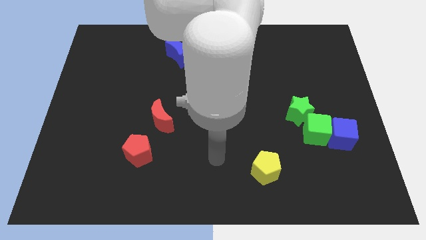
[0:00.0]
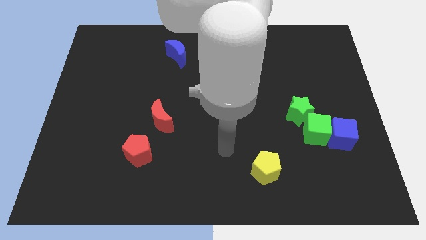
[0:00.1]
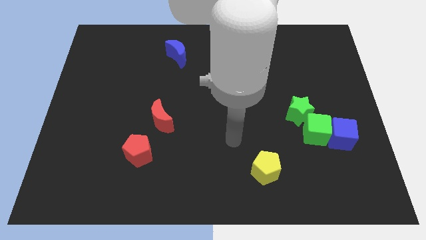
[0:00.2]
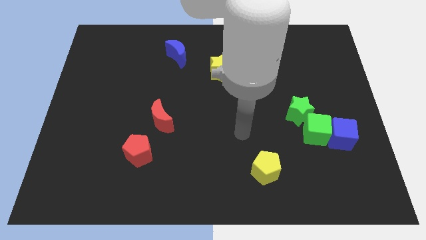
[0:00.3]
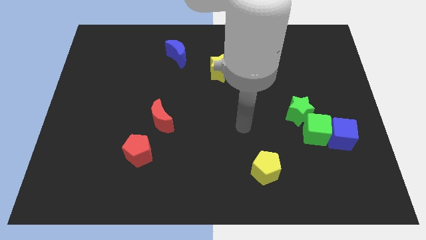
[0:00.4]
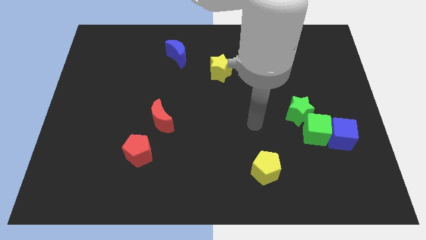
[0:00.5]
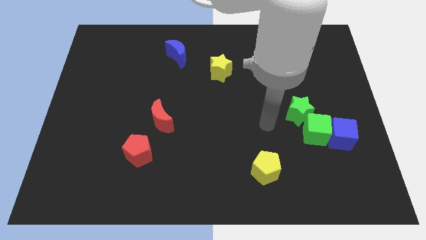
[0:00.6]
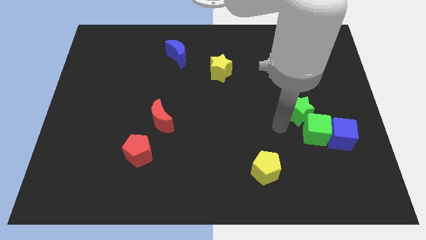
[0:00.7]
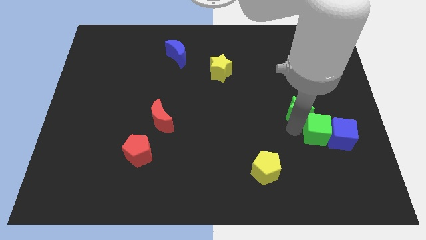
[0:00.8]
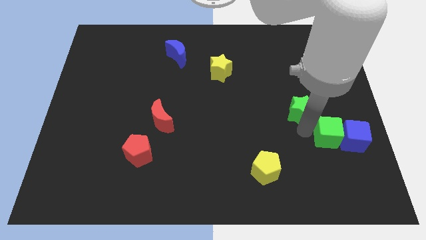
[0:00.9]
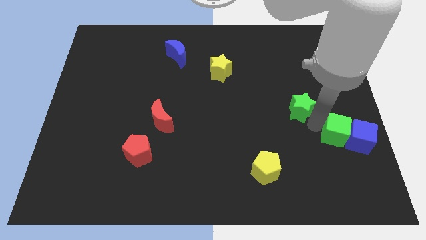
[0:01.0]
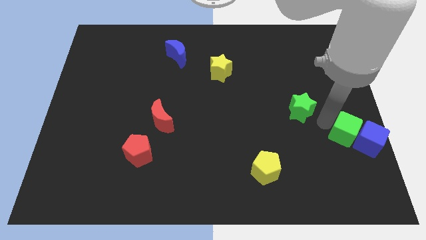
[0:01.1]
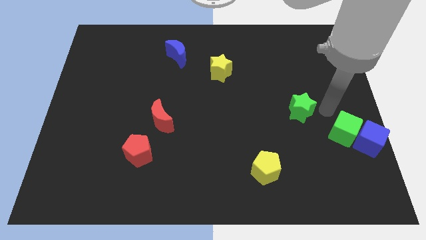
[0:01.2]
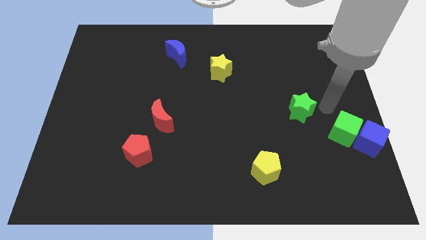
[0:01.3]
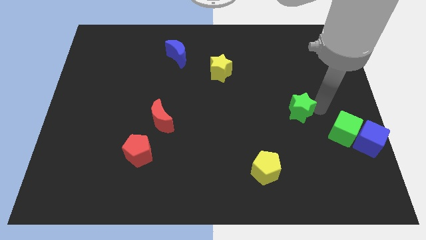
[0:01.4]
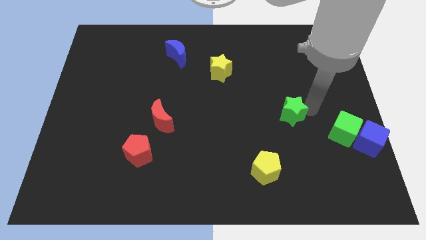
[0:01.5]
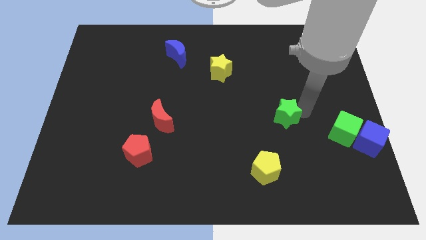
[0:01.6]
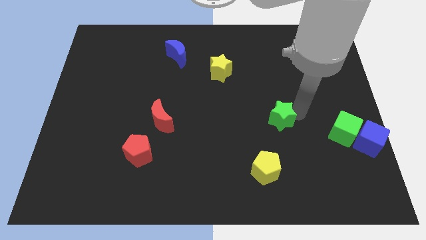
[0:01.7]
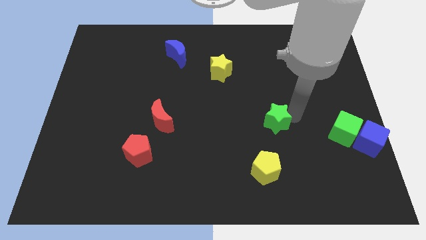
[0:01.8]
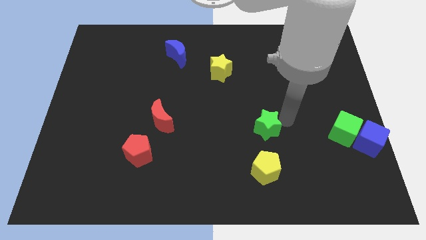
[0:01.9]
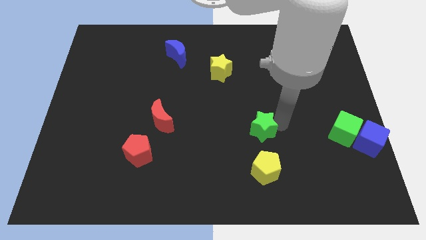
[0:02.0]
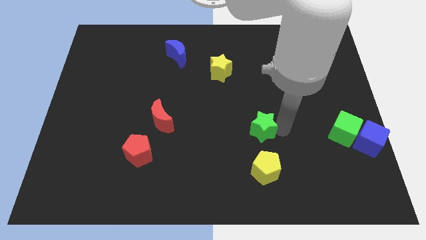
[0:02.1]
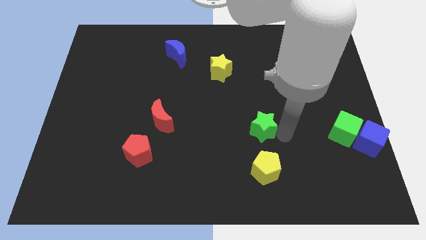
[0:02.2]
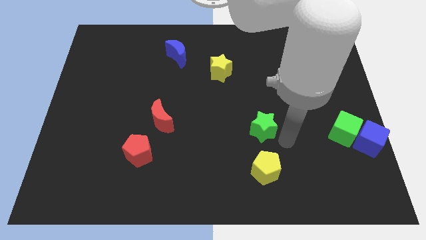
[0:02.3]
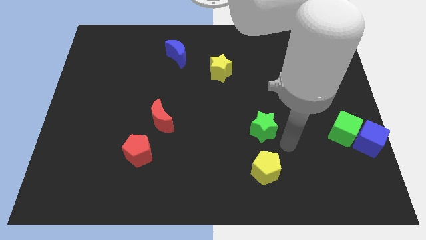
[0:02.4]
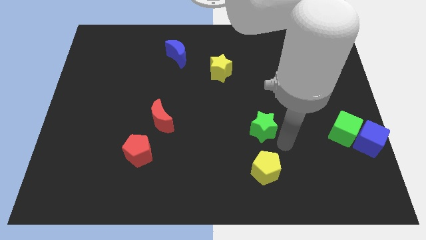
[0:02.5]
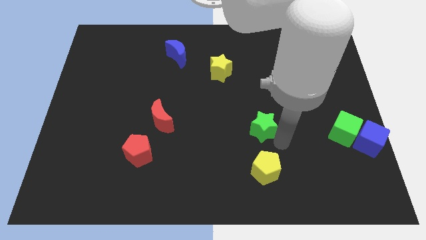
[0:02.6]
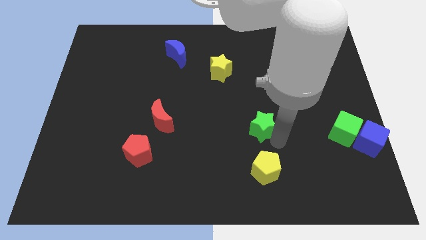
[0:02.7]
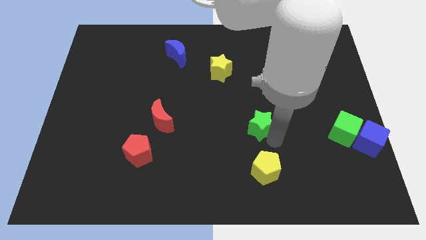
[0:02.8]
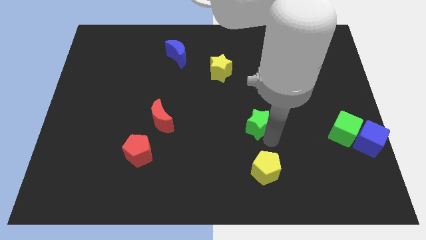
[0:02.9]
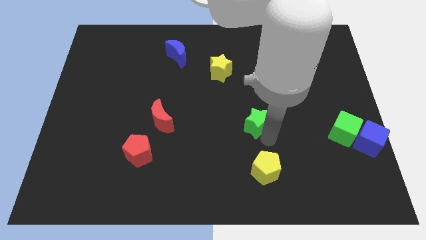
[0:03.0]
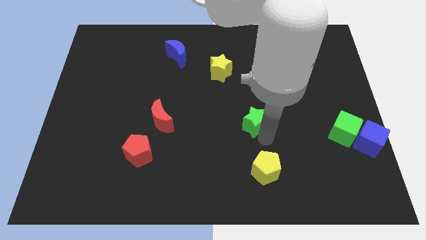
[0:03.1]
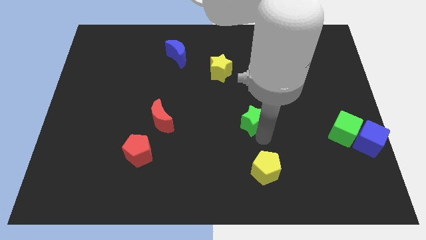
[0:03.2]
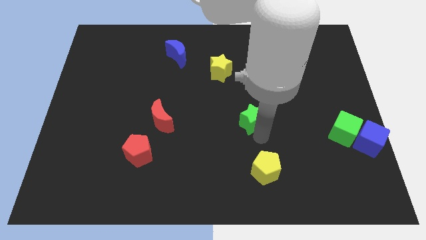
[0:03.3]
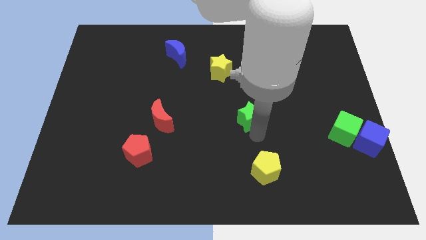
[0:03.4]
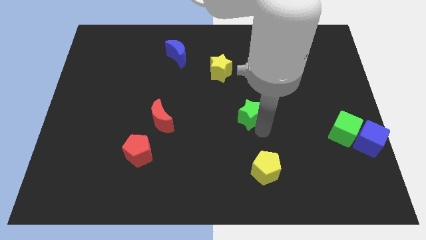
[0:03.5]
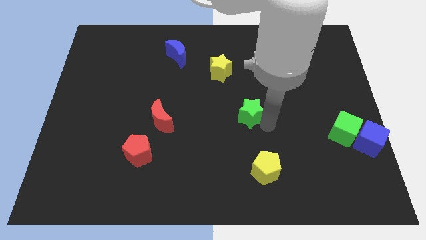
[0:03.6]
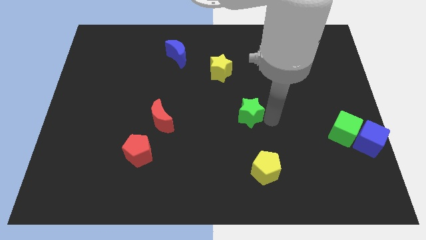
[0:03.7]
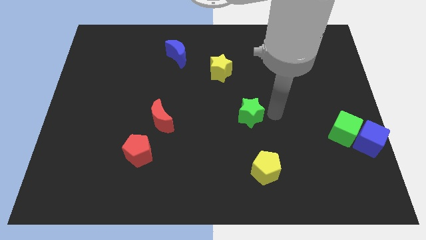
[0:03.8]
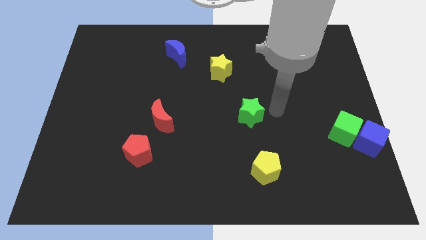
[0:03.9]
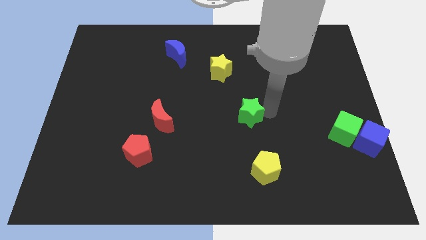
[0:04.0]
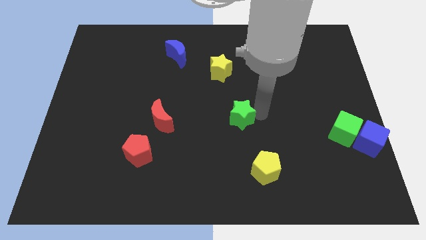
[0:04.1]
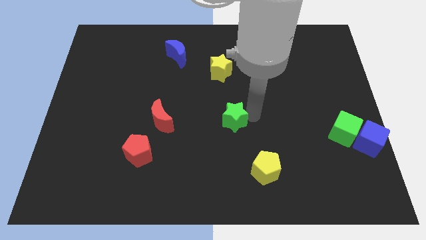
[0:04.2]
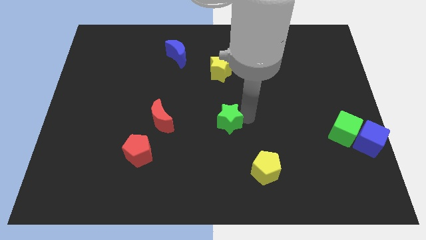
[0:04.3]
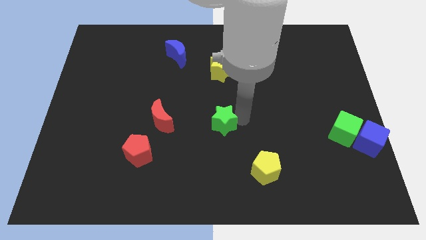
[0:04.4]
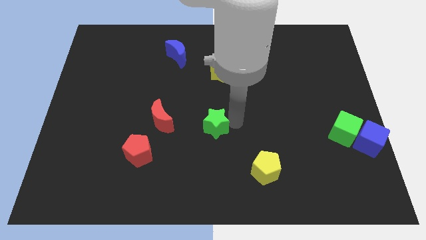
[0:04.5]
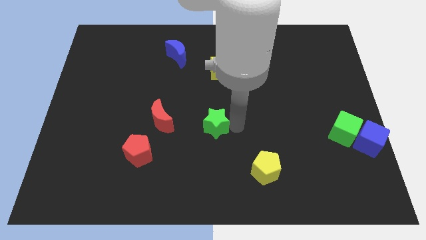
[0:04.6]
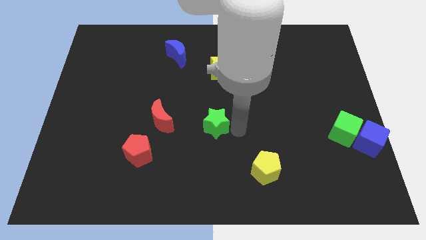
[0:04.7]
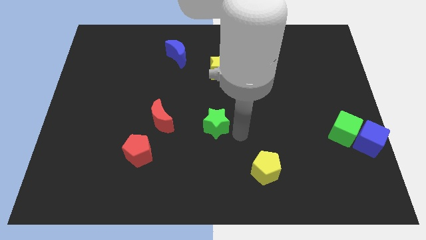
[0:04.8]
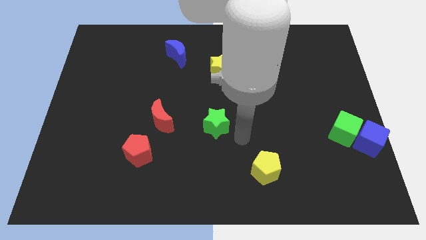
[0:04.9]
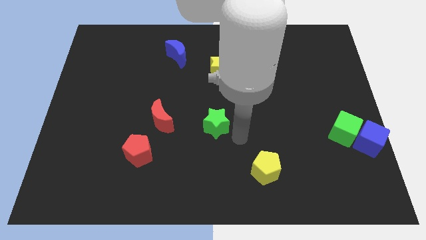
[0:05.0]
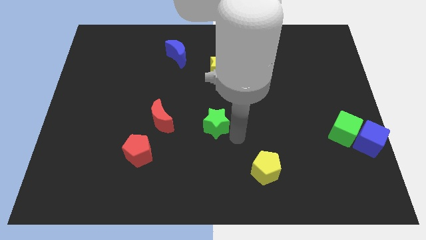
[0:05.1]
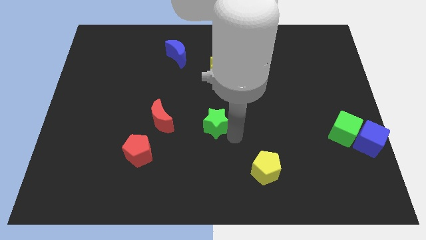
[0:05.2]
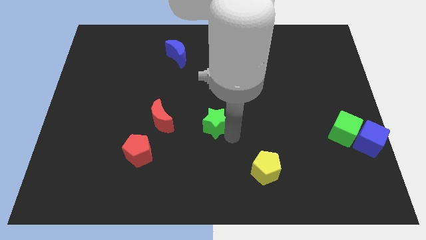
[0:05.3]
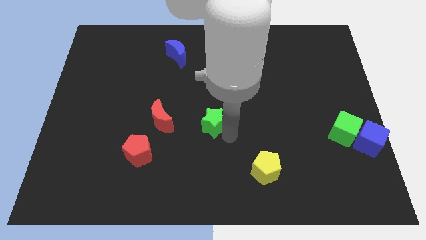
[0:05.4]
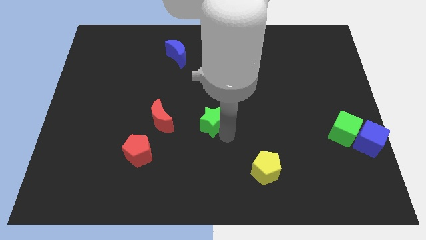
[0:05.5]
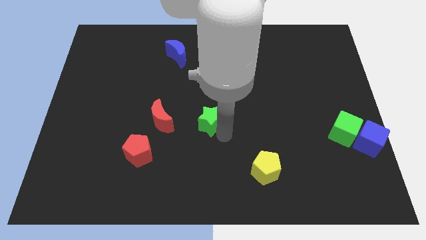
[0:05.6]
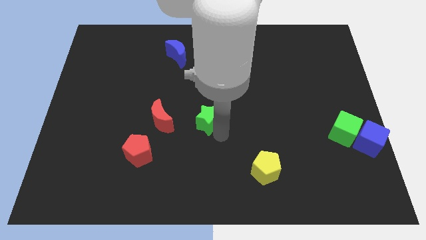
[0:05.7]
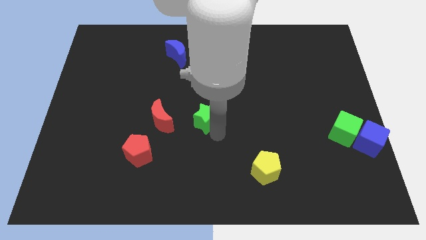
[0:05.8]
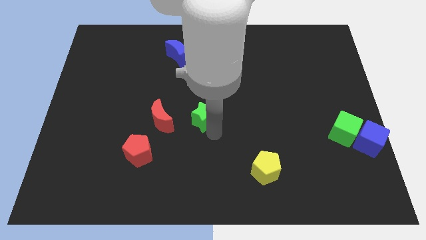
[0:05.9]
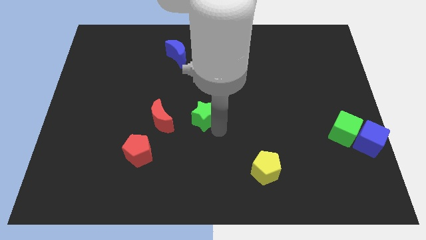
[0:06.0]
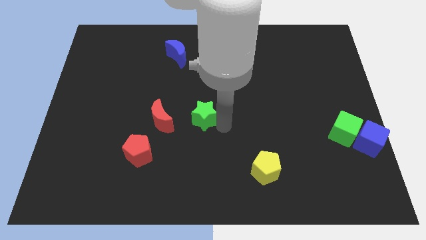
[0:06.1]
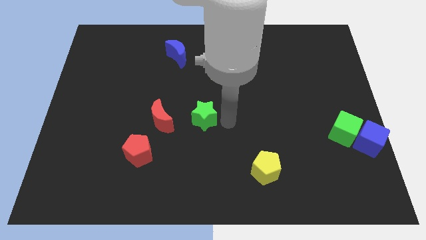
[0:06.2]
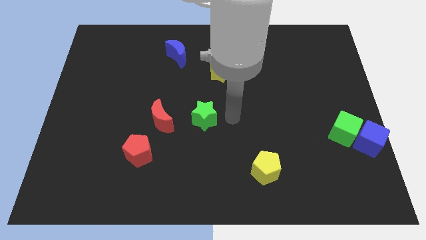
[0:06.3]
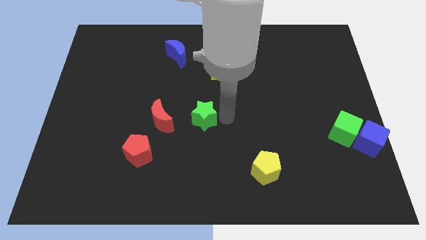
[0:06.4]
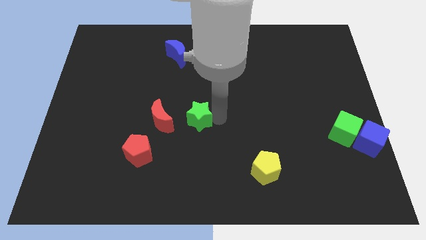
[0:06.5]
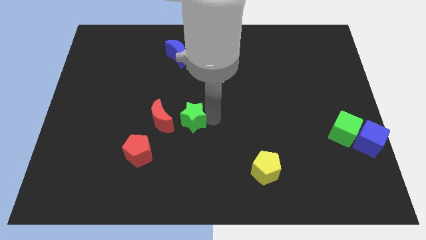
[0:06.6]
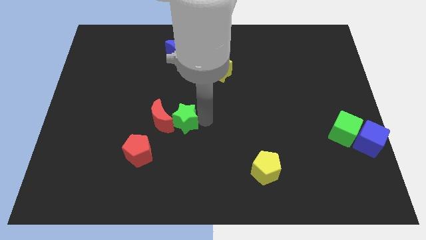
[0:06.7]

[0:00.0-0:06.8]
put the green star next to the red moon
